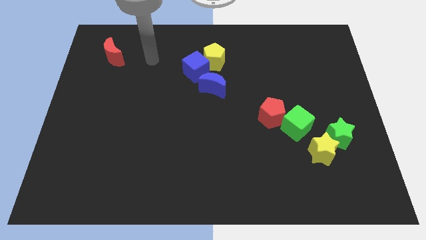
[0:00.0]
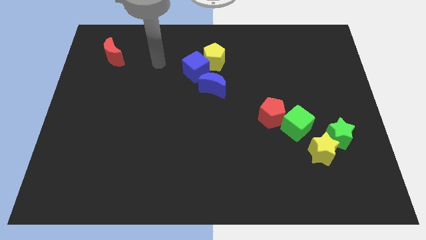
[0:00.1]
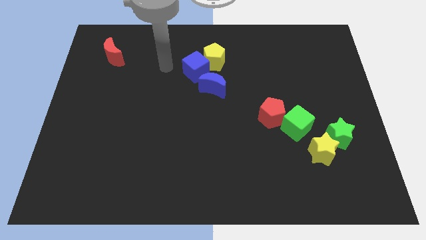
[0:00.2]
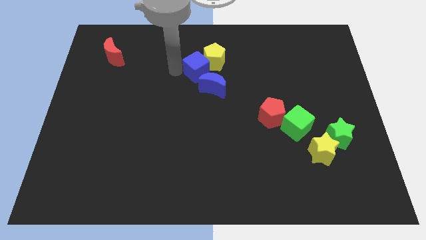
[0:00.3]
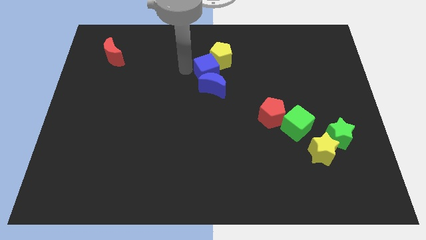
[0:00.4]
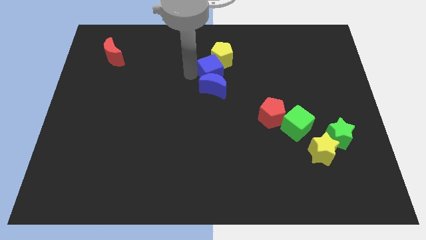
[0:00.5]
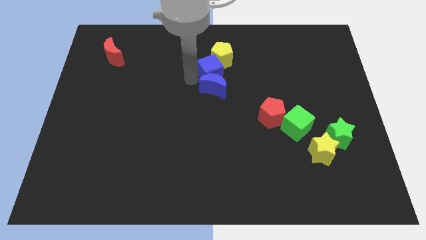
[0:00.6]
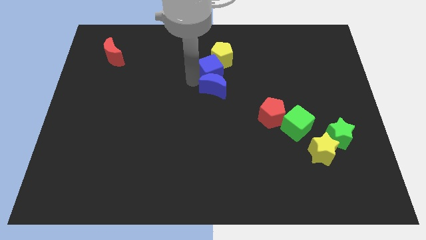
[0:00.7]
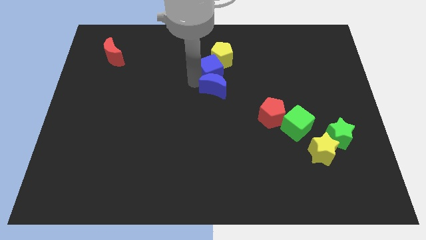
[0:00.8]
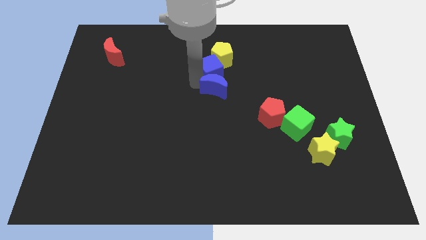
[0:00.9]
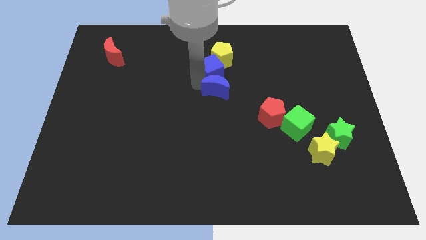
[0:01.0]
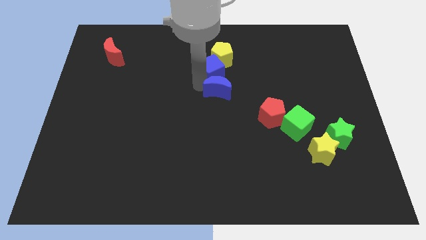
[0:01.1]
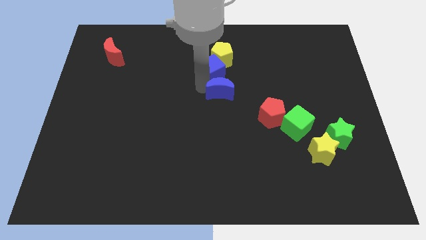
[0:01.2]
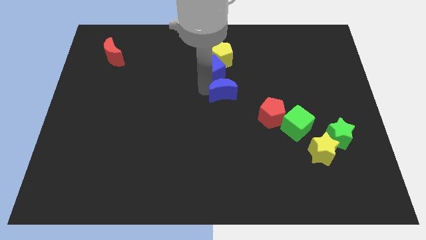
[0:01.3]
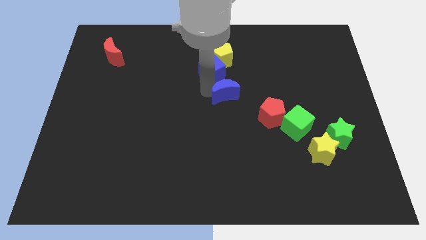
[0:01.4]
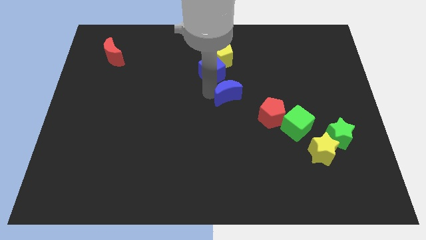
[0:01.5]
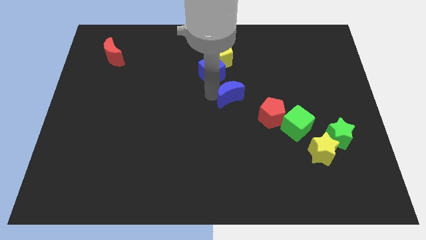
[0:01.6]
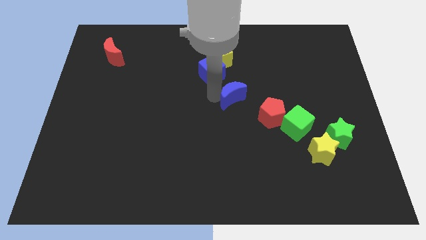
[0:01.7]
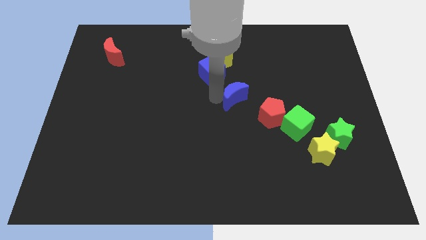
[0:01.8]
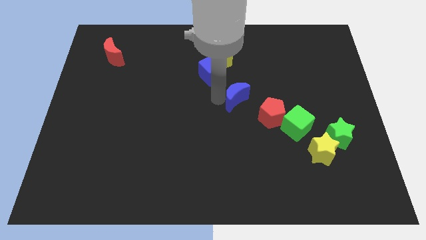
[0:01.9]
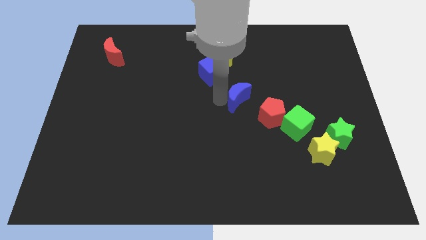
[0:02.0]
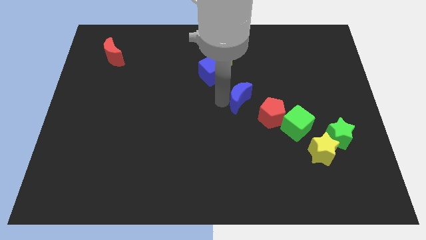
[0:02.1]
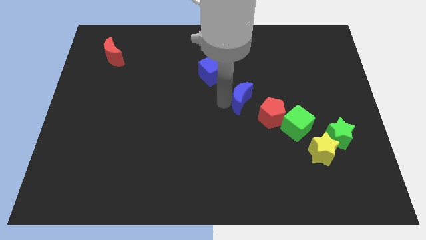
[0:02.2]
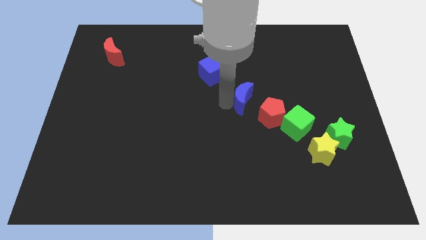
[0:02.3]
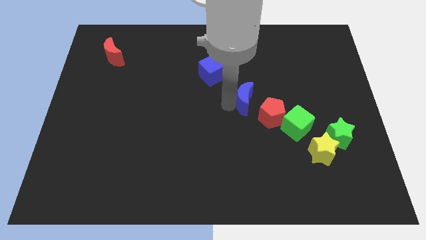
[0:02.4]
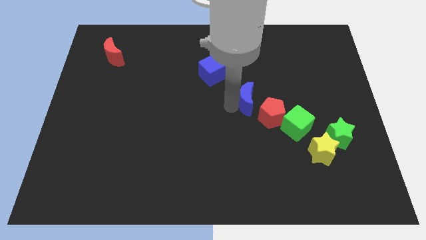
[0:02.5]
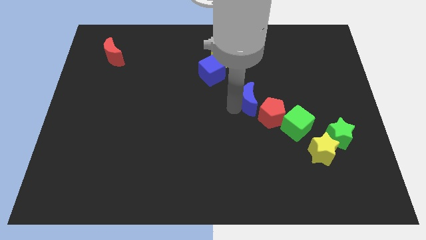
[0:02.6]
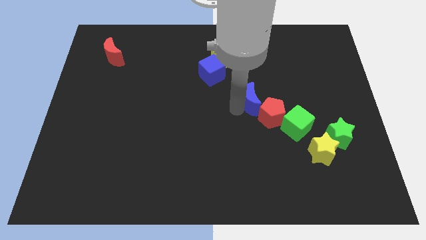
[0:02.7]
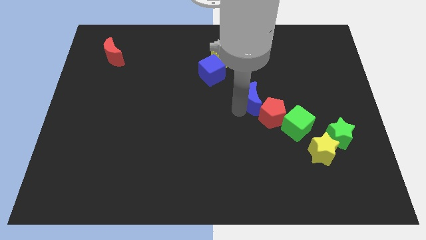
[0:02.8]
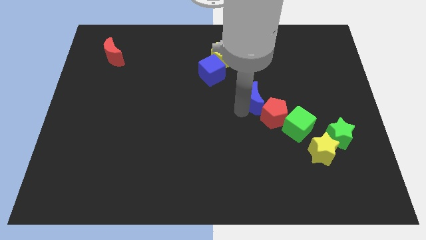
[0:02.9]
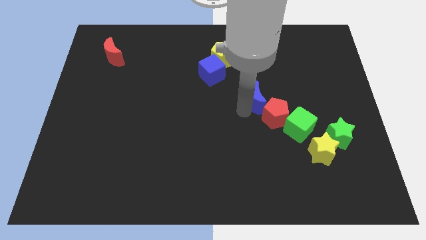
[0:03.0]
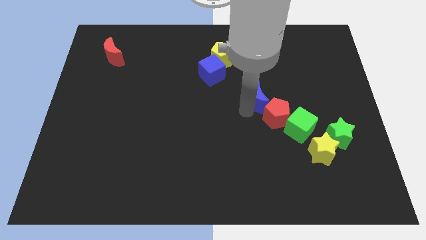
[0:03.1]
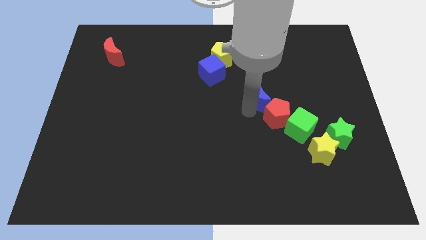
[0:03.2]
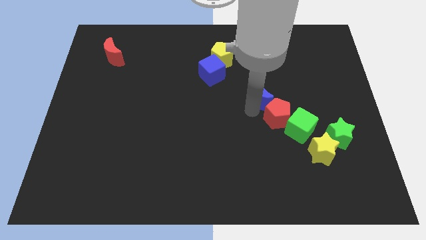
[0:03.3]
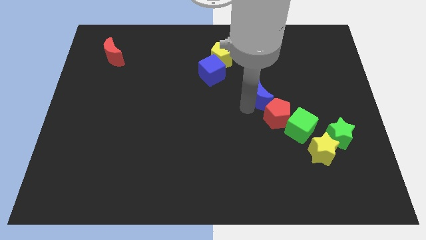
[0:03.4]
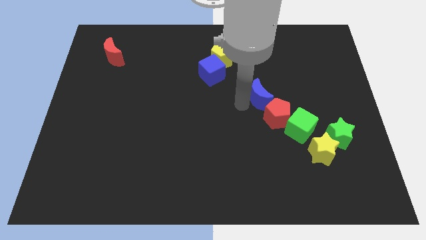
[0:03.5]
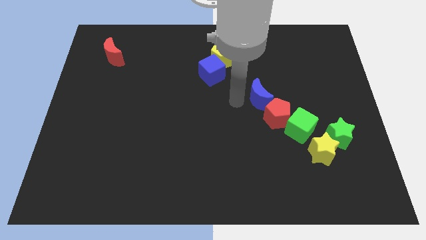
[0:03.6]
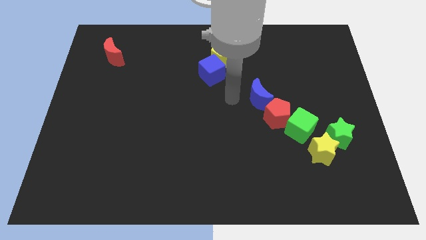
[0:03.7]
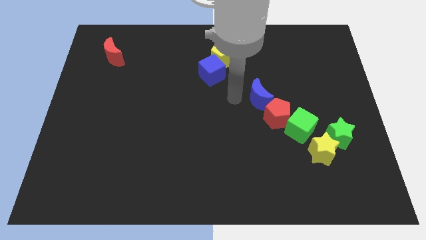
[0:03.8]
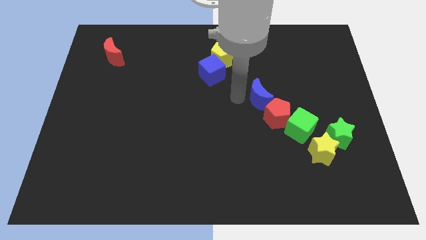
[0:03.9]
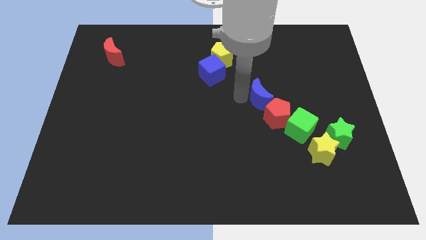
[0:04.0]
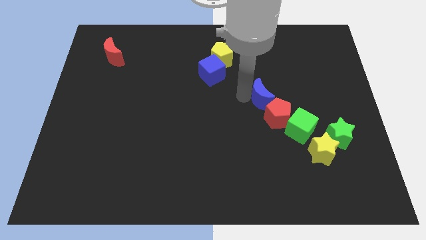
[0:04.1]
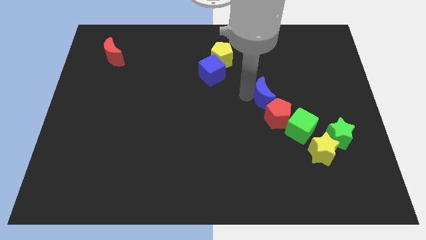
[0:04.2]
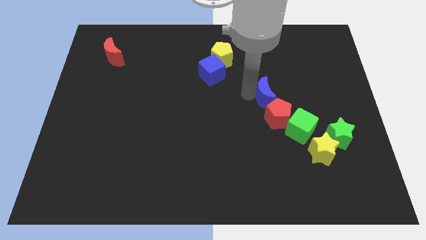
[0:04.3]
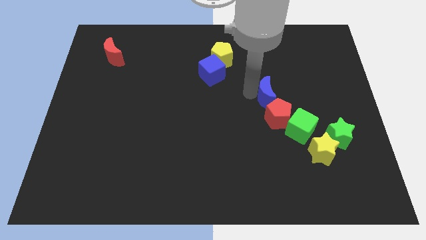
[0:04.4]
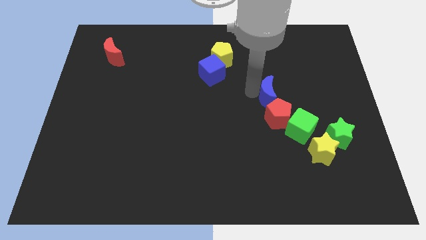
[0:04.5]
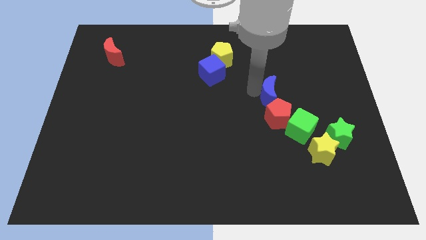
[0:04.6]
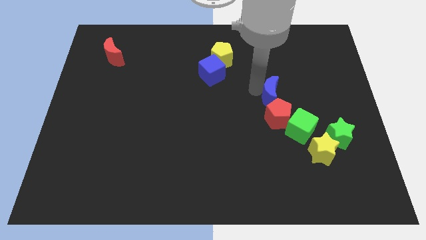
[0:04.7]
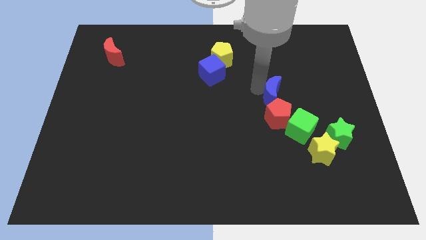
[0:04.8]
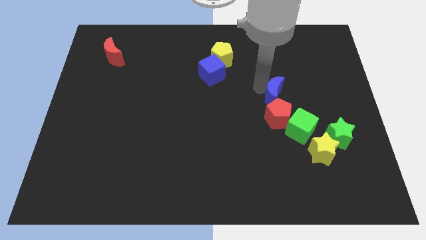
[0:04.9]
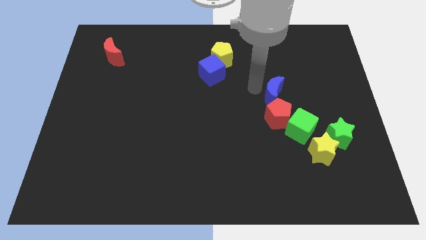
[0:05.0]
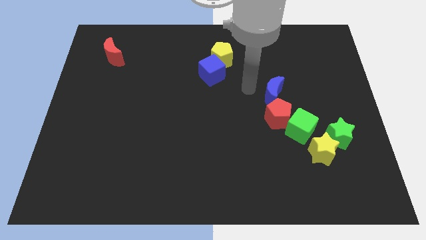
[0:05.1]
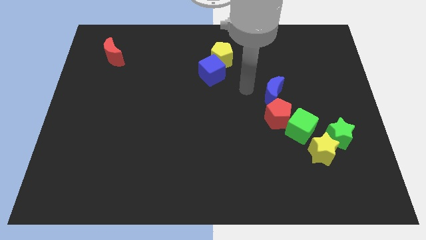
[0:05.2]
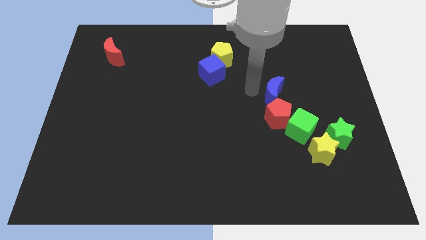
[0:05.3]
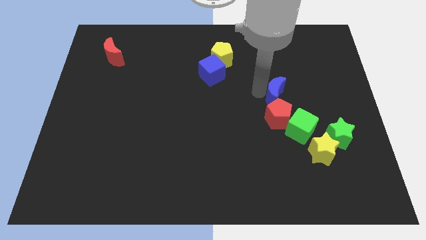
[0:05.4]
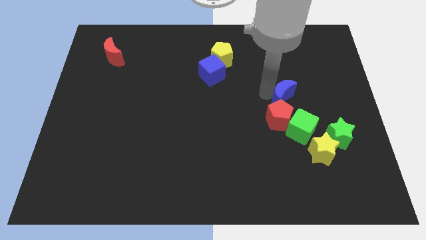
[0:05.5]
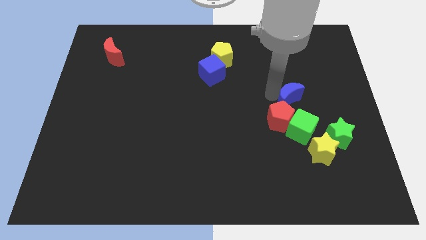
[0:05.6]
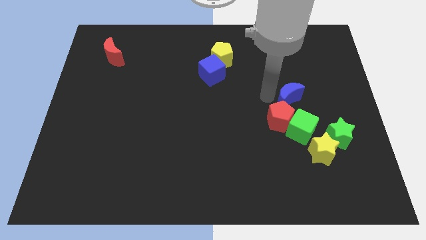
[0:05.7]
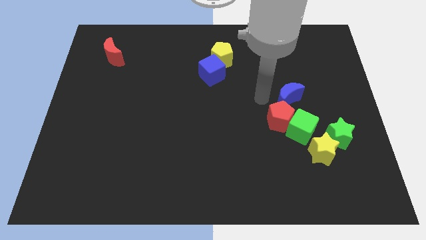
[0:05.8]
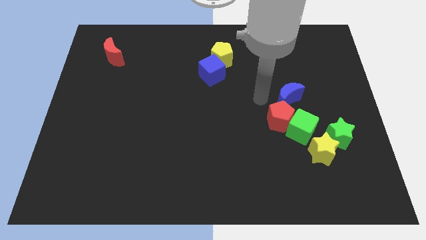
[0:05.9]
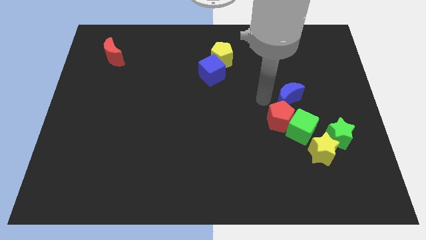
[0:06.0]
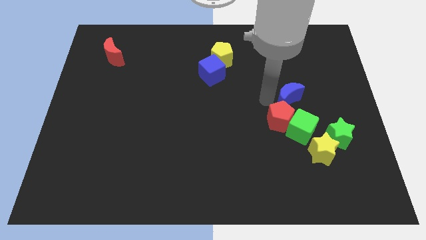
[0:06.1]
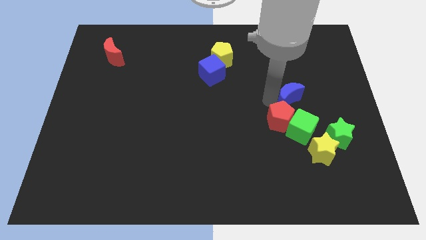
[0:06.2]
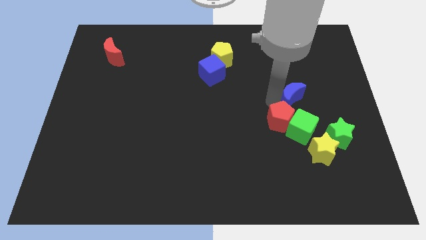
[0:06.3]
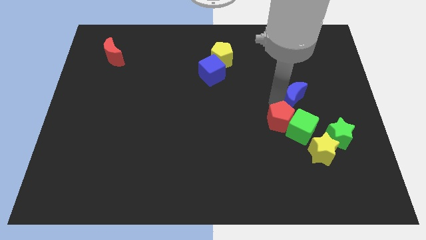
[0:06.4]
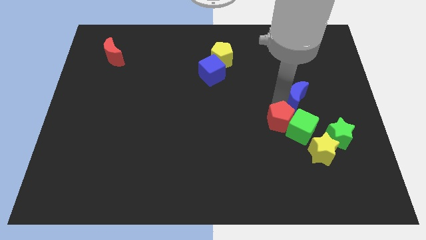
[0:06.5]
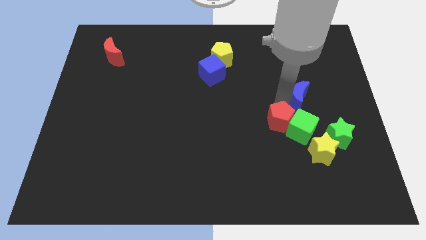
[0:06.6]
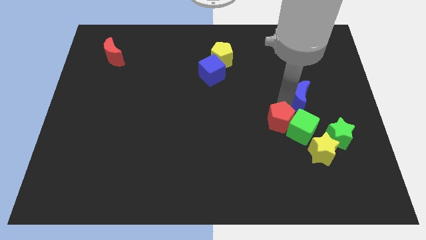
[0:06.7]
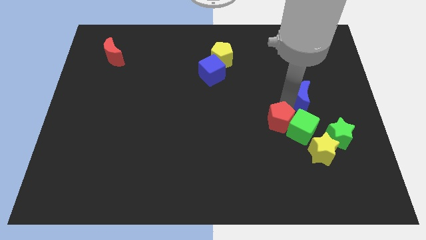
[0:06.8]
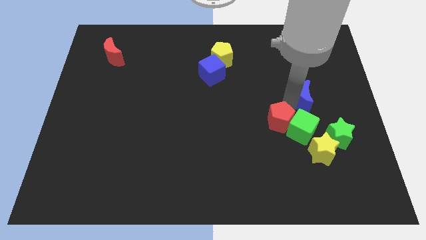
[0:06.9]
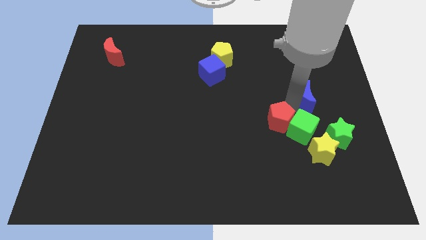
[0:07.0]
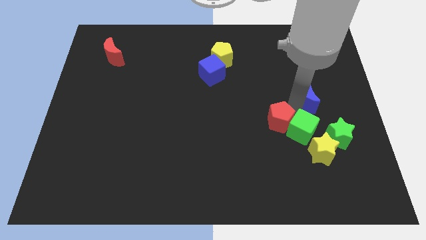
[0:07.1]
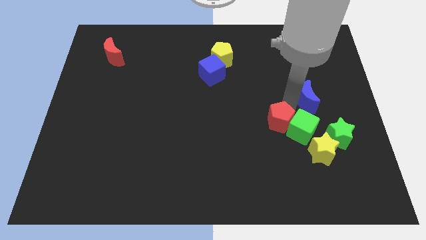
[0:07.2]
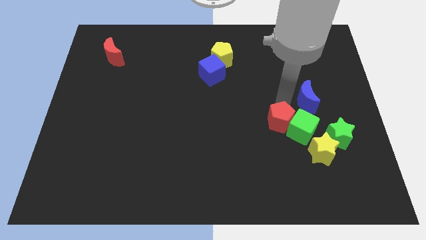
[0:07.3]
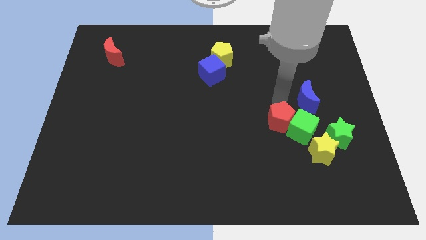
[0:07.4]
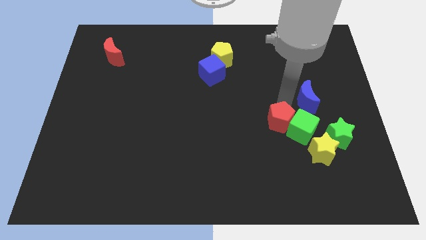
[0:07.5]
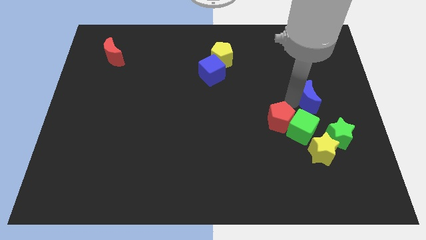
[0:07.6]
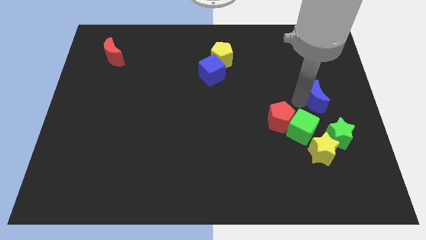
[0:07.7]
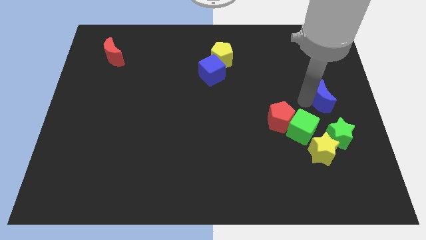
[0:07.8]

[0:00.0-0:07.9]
slide the blue moon to the right side of the board
